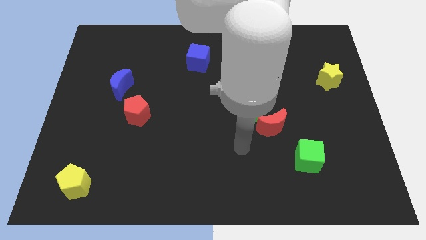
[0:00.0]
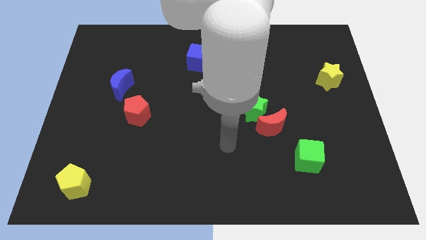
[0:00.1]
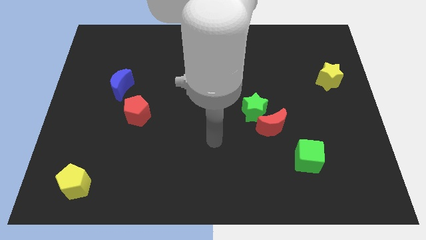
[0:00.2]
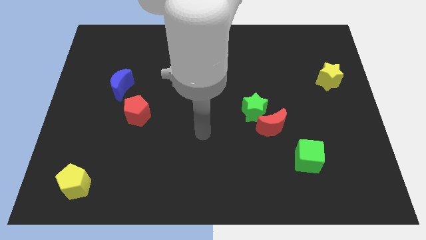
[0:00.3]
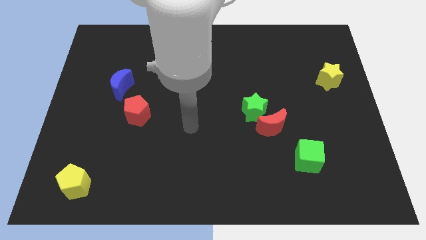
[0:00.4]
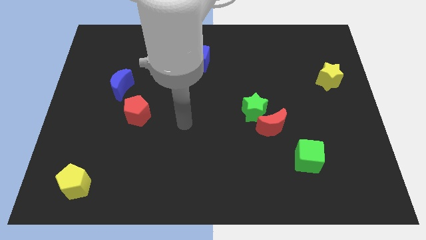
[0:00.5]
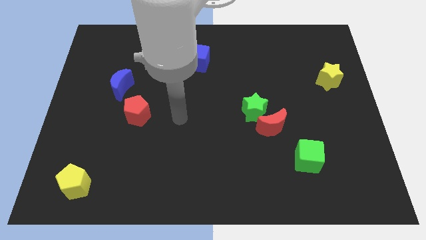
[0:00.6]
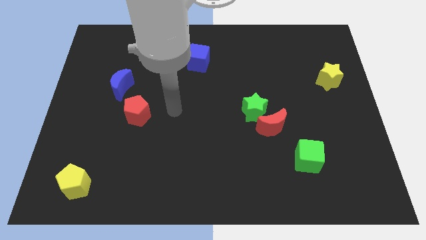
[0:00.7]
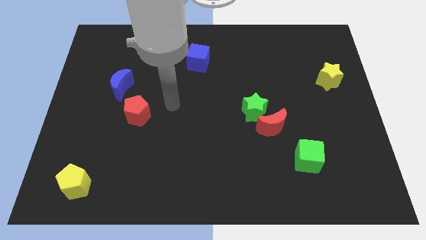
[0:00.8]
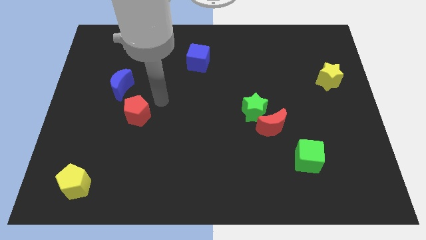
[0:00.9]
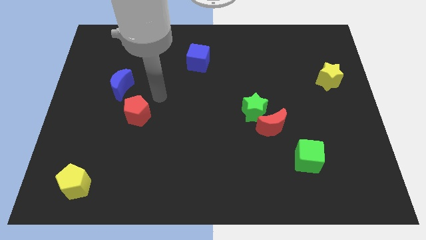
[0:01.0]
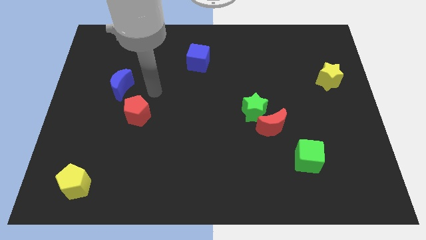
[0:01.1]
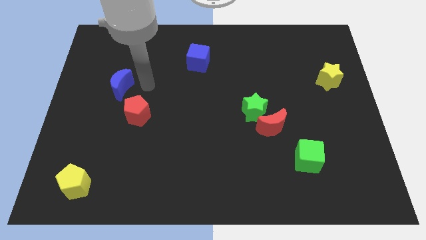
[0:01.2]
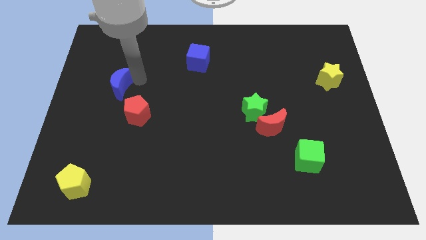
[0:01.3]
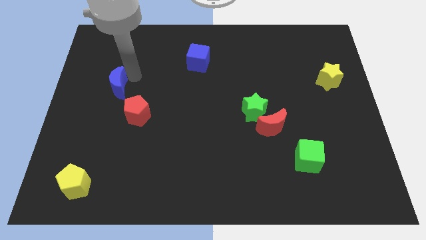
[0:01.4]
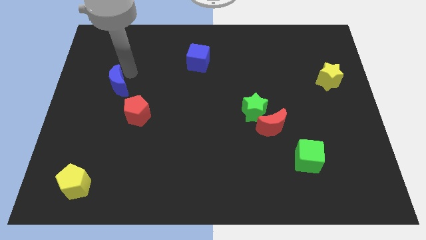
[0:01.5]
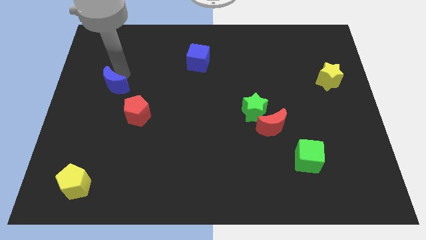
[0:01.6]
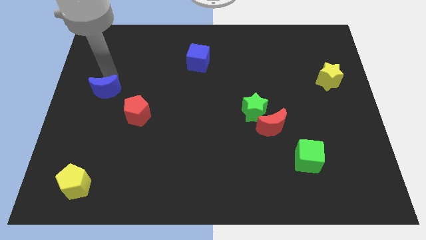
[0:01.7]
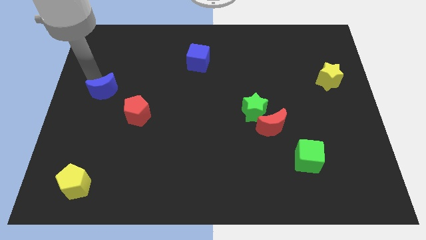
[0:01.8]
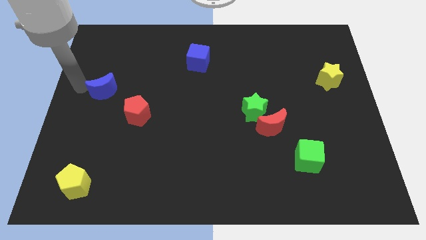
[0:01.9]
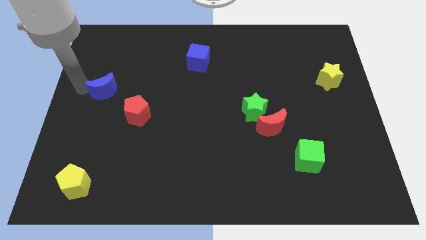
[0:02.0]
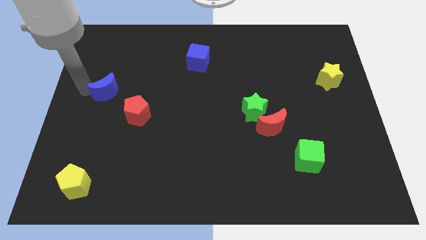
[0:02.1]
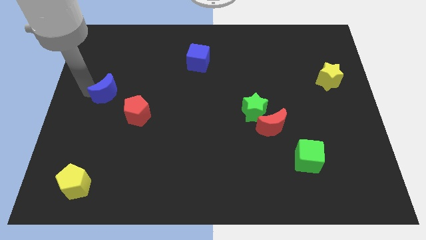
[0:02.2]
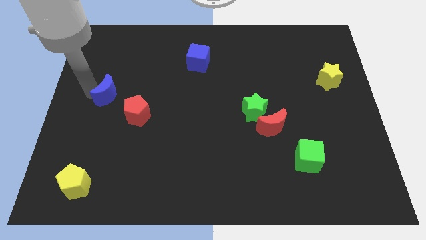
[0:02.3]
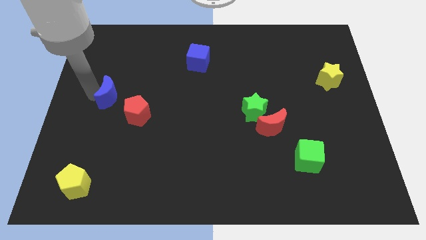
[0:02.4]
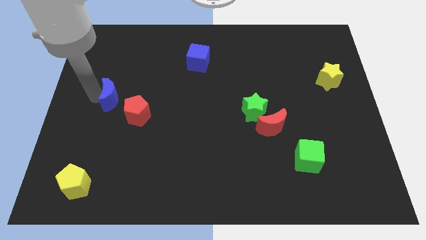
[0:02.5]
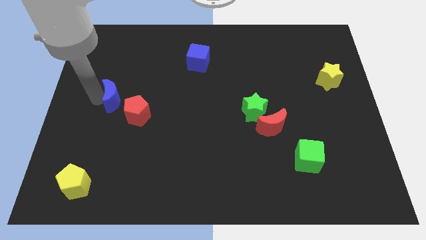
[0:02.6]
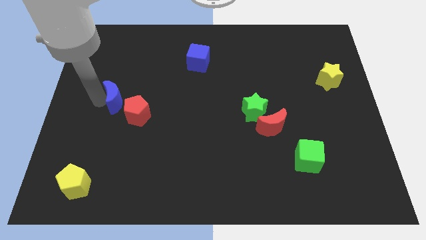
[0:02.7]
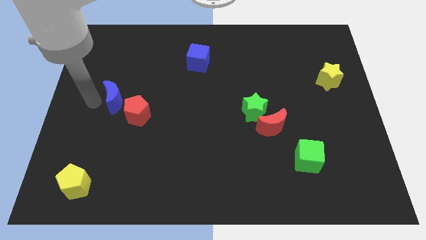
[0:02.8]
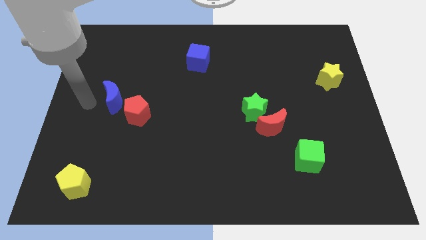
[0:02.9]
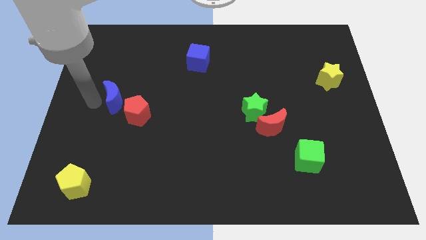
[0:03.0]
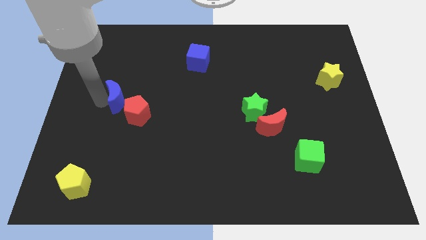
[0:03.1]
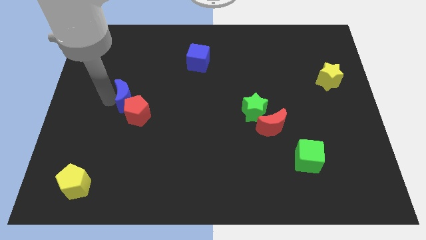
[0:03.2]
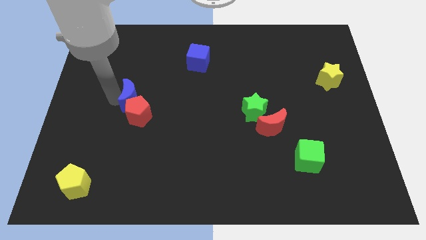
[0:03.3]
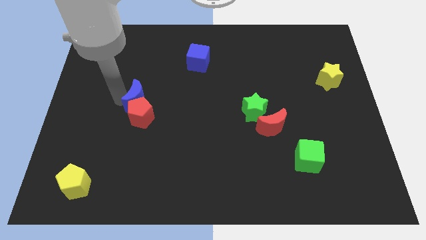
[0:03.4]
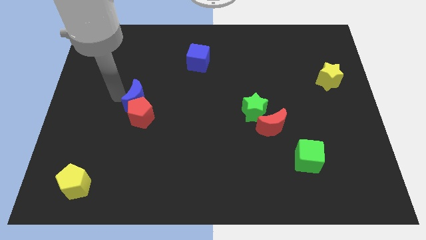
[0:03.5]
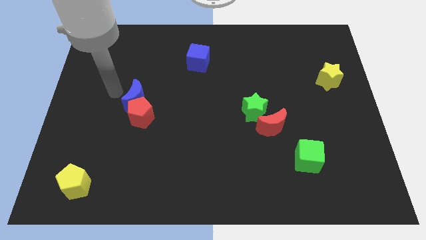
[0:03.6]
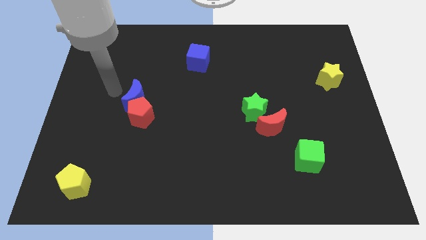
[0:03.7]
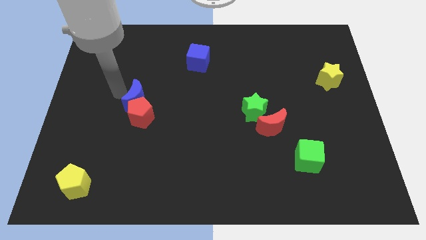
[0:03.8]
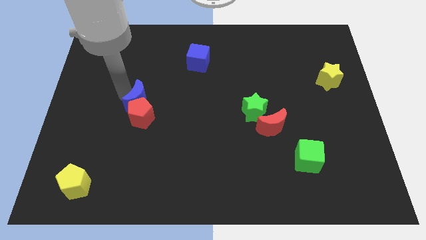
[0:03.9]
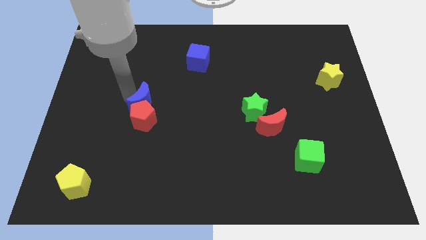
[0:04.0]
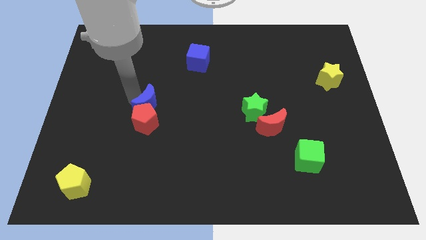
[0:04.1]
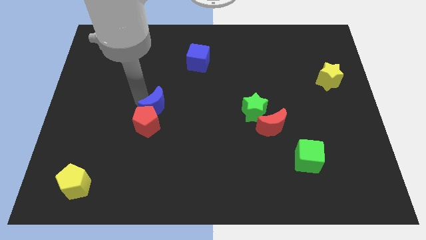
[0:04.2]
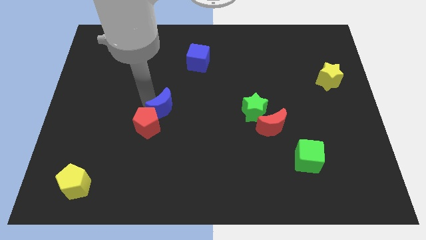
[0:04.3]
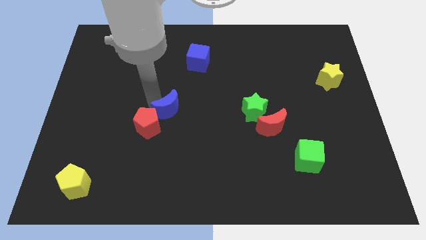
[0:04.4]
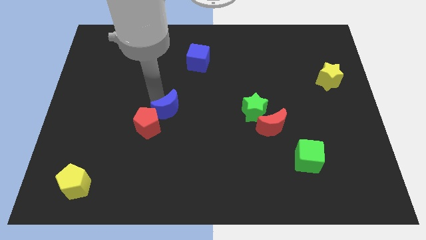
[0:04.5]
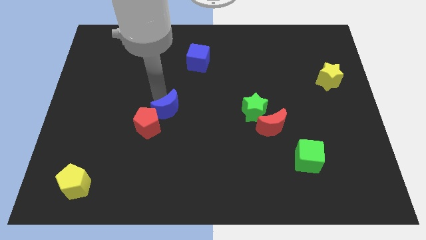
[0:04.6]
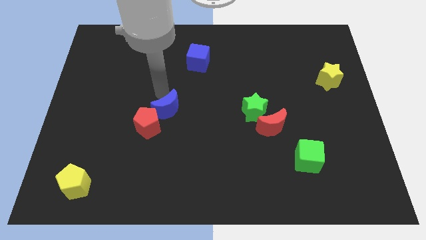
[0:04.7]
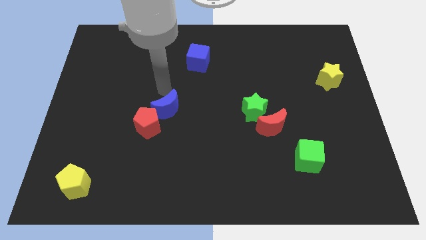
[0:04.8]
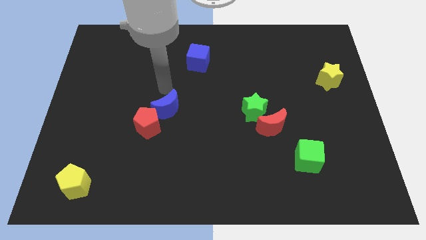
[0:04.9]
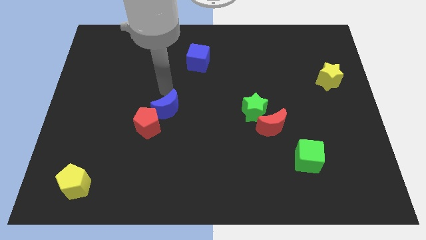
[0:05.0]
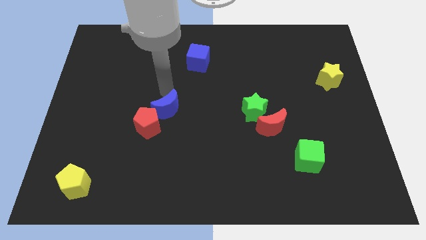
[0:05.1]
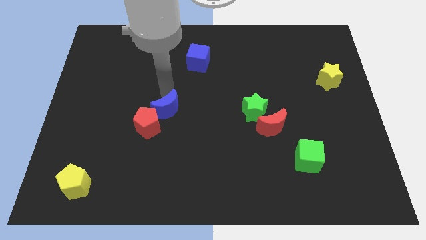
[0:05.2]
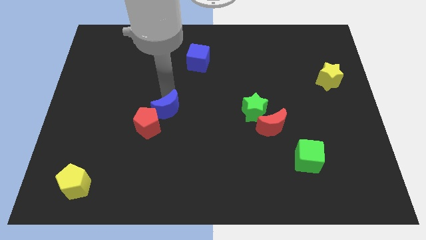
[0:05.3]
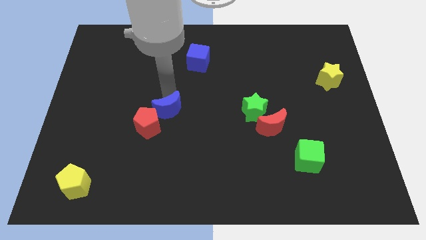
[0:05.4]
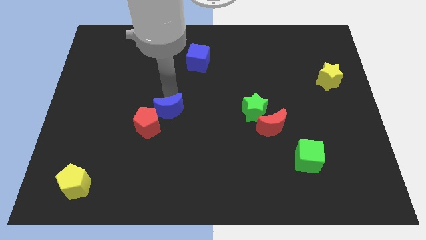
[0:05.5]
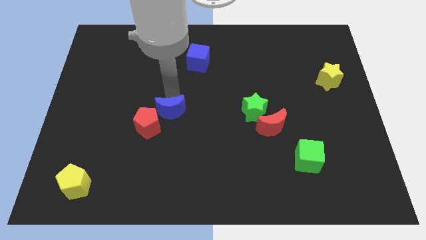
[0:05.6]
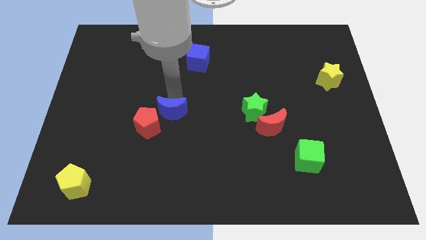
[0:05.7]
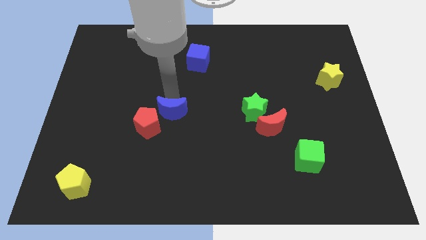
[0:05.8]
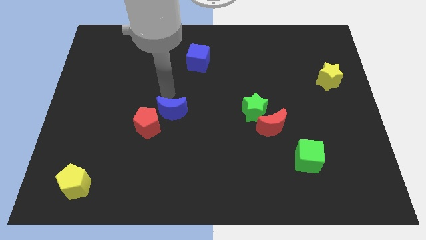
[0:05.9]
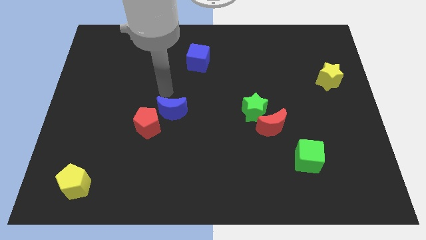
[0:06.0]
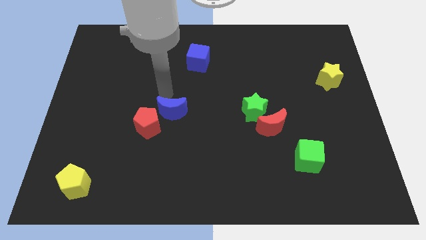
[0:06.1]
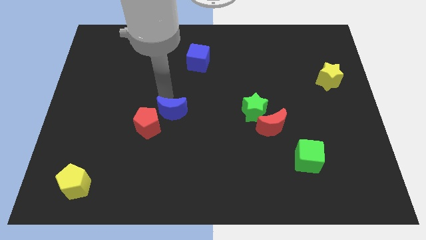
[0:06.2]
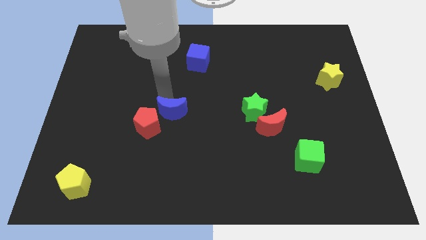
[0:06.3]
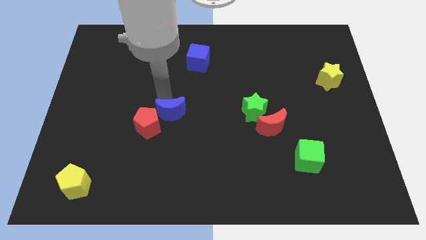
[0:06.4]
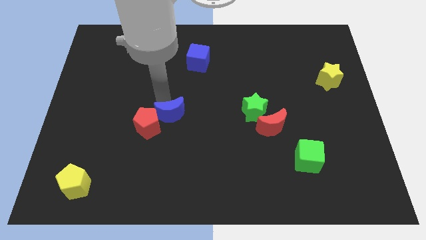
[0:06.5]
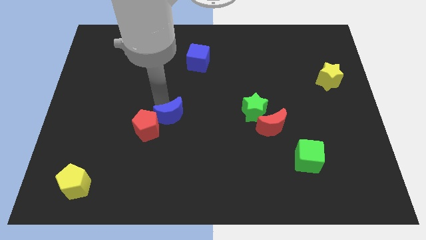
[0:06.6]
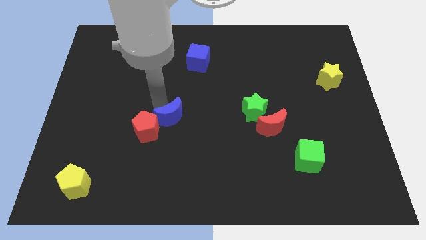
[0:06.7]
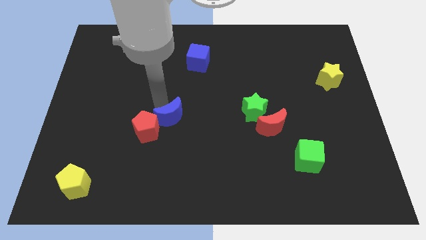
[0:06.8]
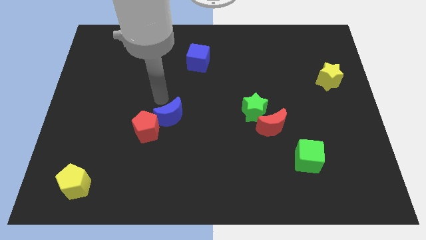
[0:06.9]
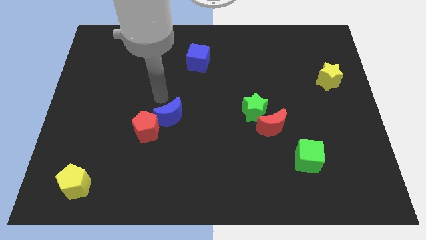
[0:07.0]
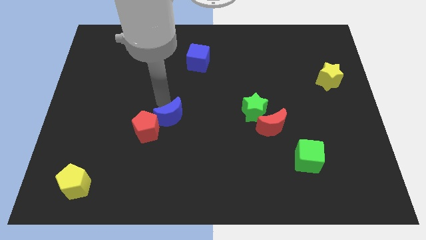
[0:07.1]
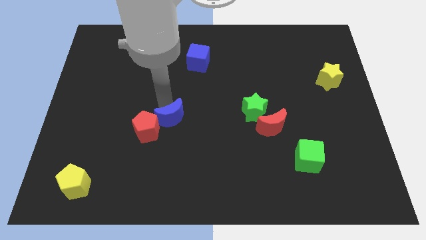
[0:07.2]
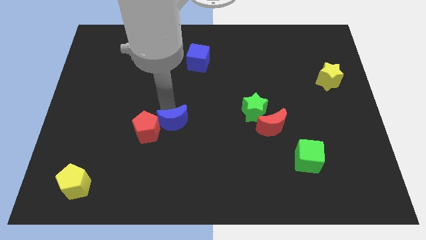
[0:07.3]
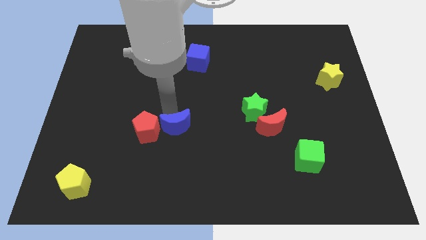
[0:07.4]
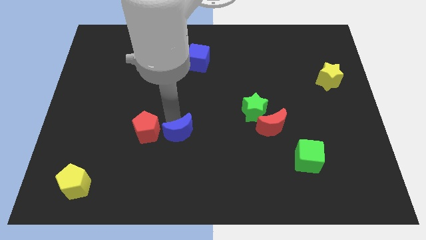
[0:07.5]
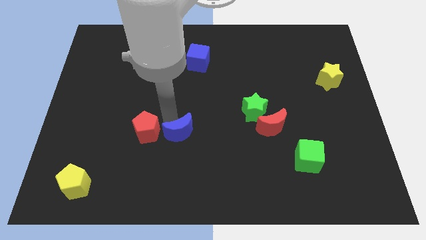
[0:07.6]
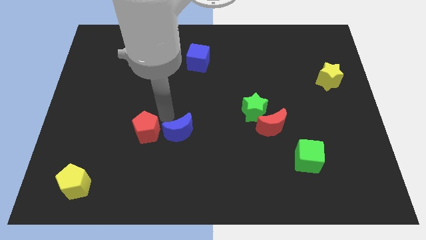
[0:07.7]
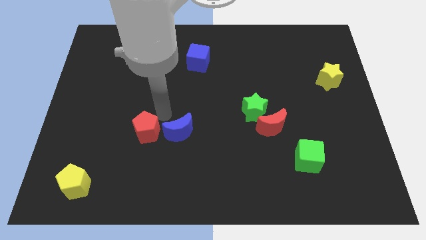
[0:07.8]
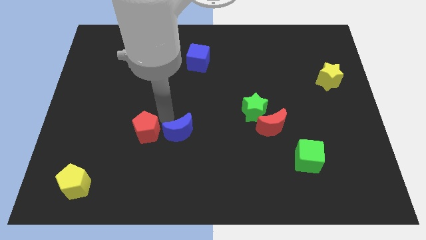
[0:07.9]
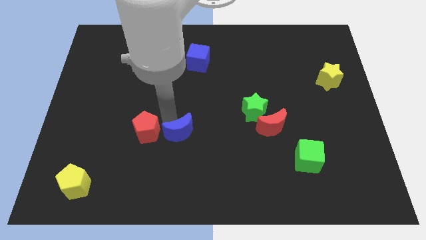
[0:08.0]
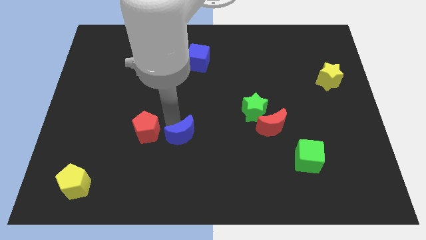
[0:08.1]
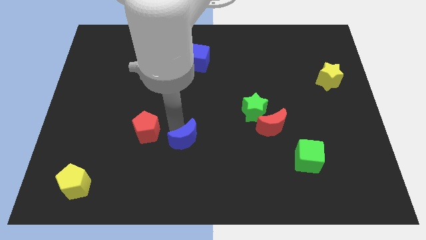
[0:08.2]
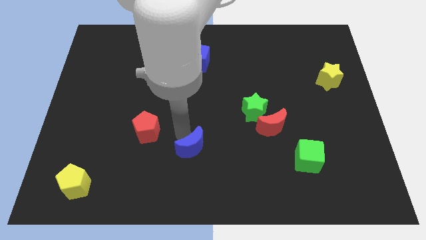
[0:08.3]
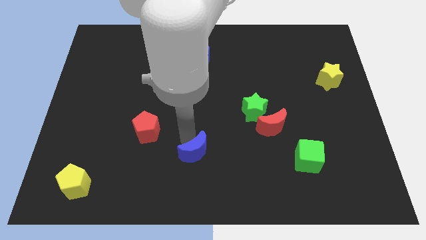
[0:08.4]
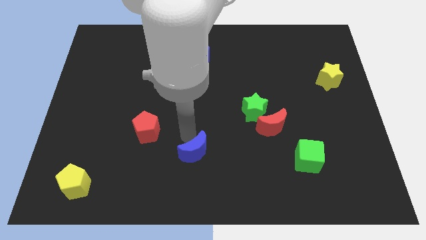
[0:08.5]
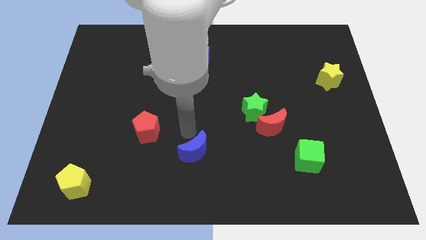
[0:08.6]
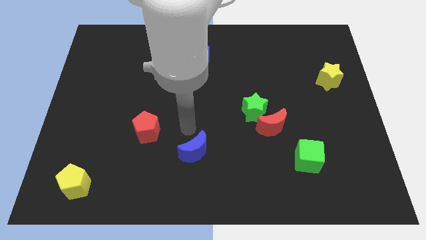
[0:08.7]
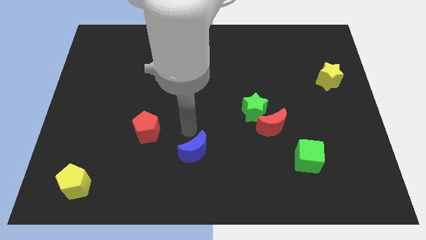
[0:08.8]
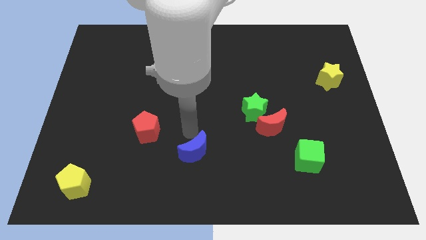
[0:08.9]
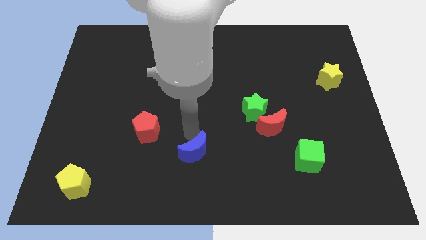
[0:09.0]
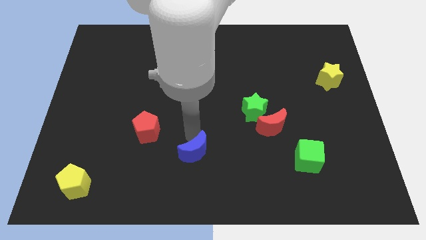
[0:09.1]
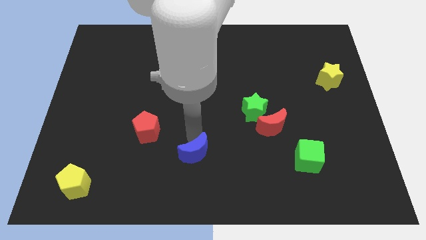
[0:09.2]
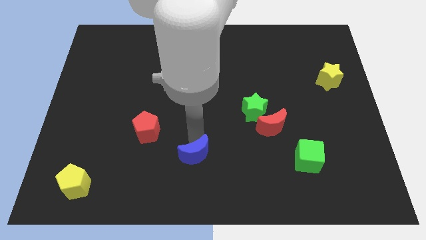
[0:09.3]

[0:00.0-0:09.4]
move the blue moon to the bottom side
